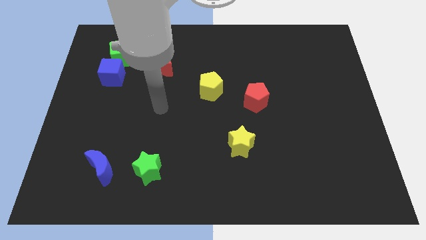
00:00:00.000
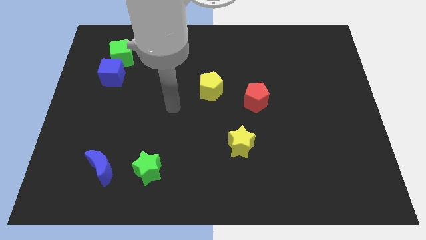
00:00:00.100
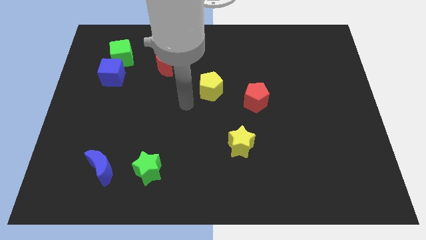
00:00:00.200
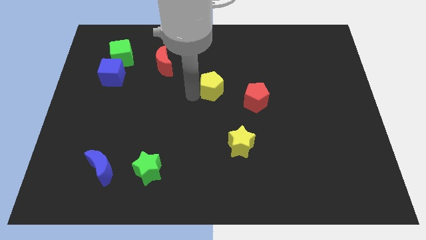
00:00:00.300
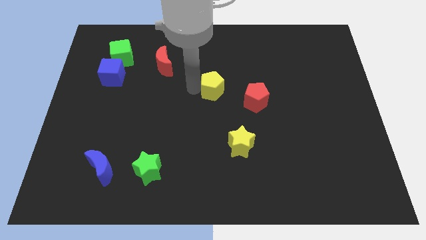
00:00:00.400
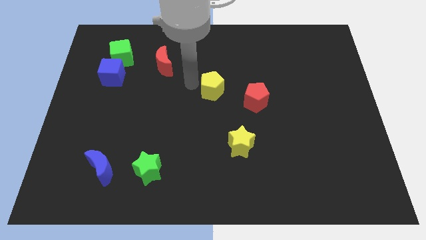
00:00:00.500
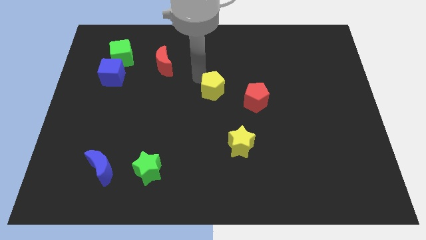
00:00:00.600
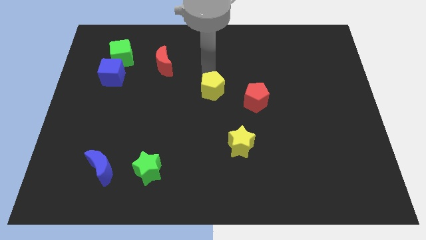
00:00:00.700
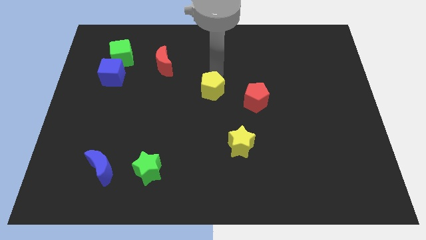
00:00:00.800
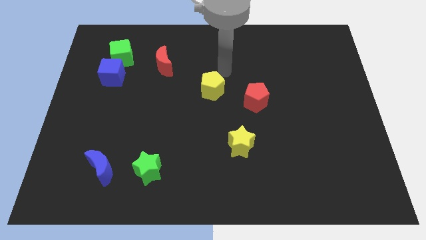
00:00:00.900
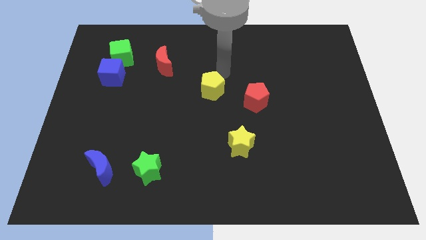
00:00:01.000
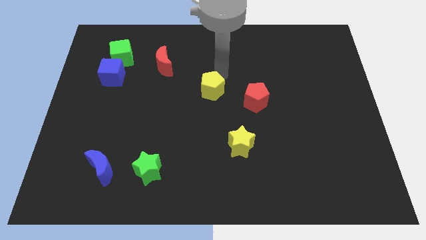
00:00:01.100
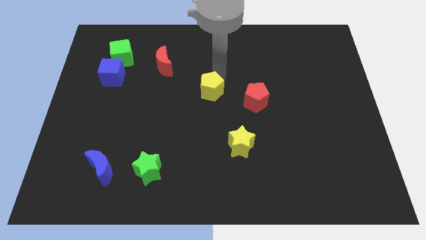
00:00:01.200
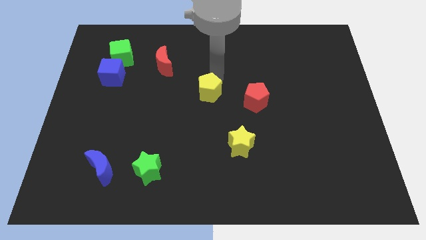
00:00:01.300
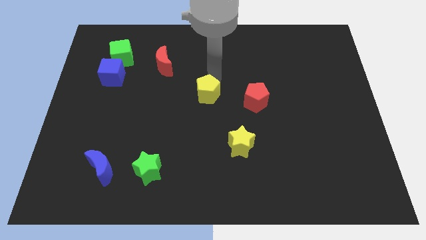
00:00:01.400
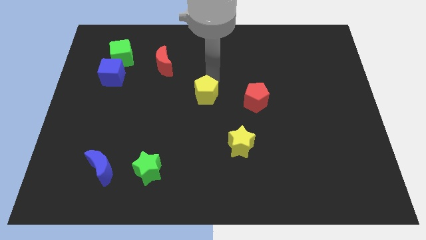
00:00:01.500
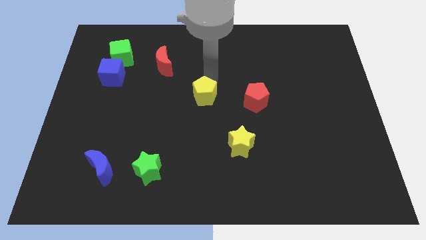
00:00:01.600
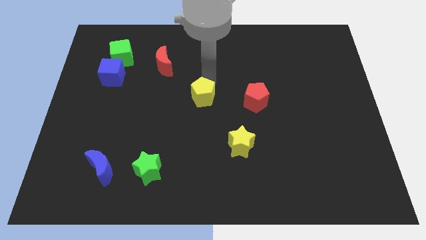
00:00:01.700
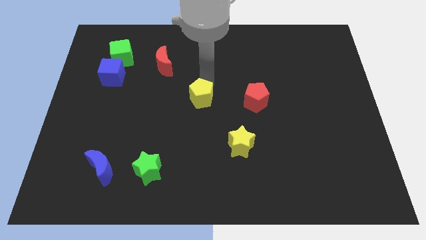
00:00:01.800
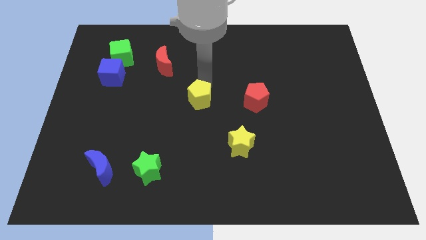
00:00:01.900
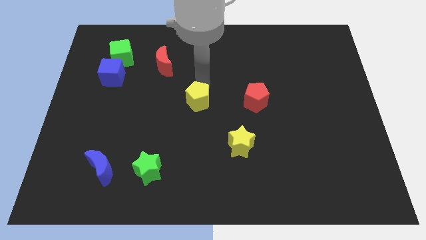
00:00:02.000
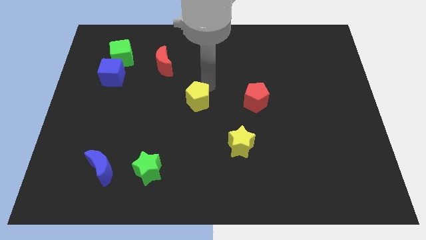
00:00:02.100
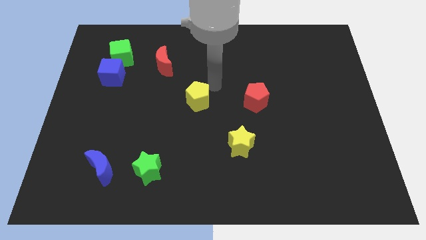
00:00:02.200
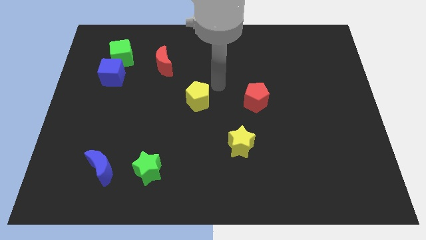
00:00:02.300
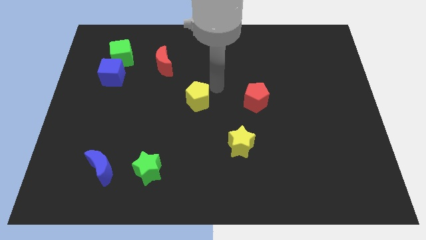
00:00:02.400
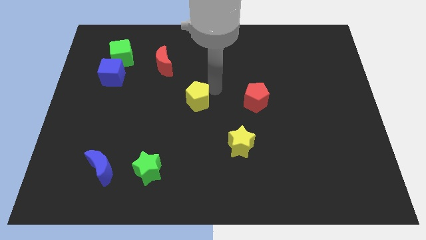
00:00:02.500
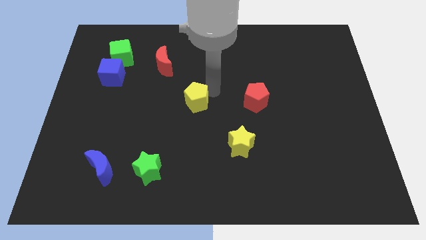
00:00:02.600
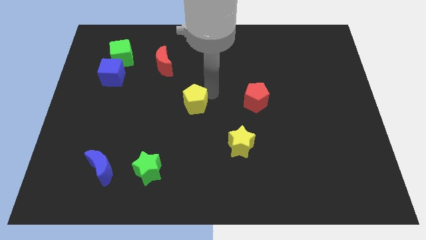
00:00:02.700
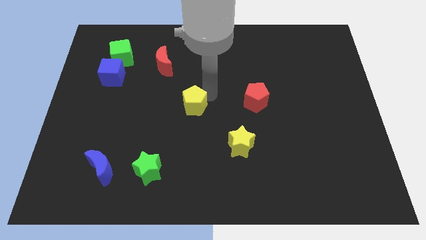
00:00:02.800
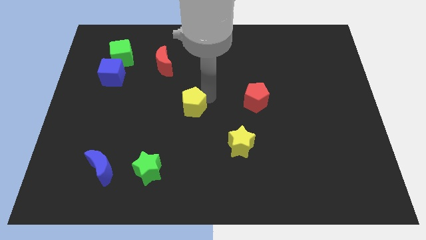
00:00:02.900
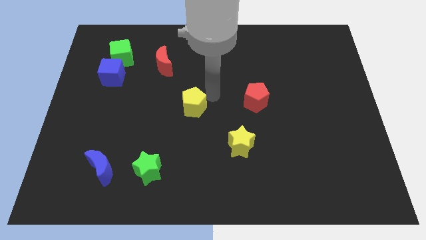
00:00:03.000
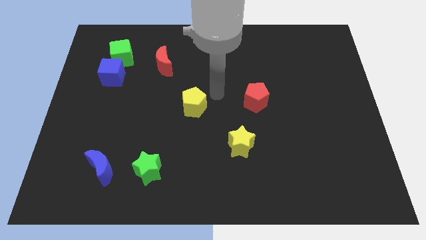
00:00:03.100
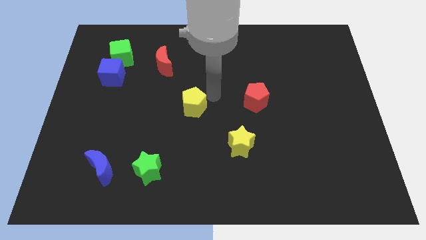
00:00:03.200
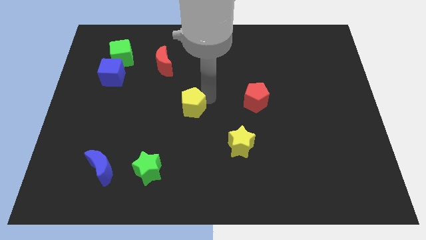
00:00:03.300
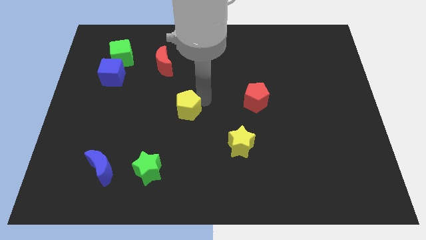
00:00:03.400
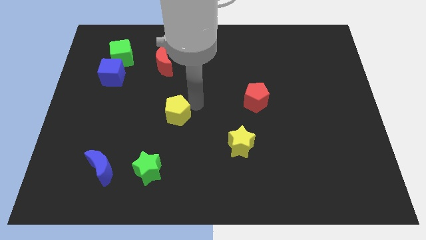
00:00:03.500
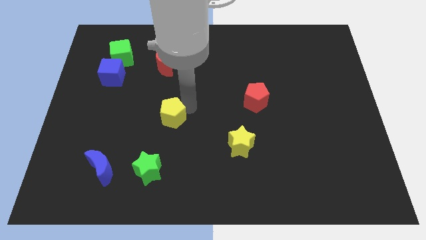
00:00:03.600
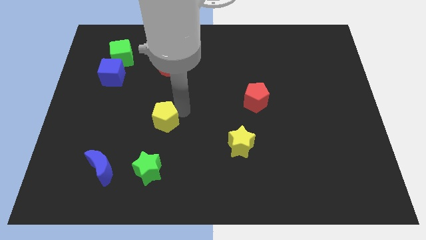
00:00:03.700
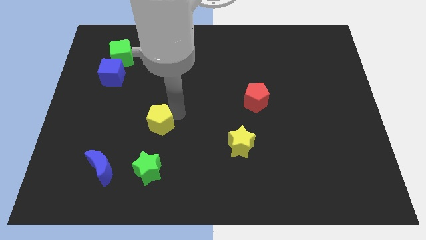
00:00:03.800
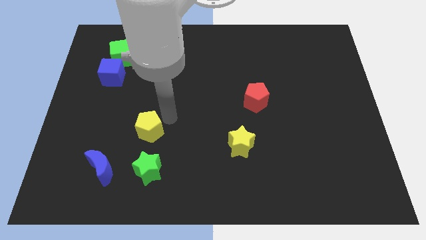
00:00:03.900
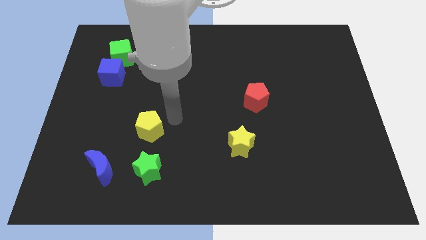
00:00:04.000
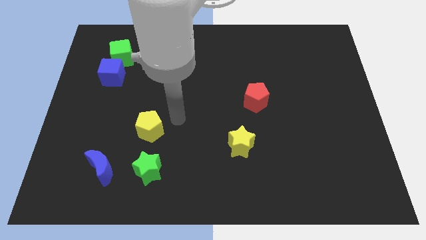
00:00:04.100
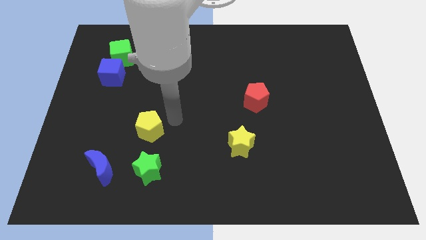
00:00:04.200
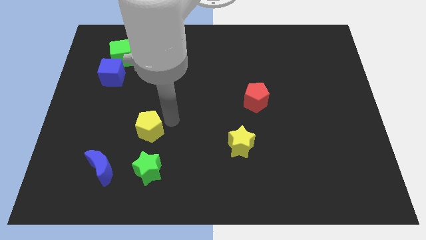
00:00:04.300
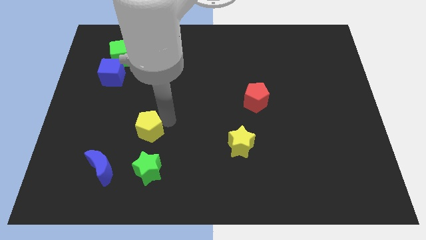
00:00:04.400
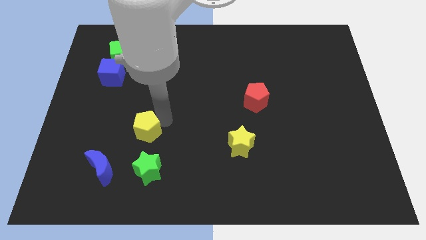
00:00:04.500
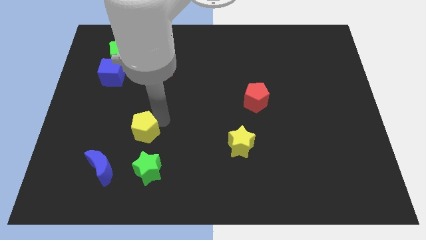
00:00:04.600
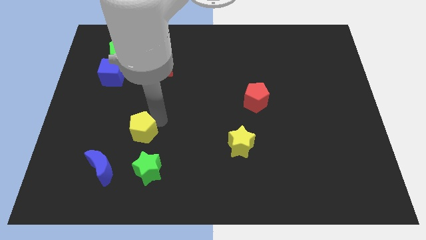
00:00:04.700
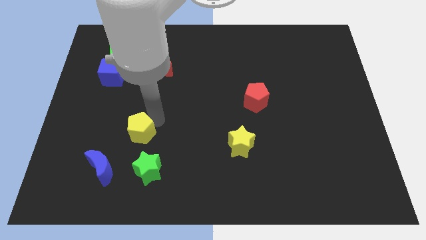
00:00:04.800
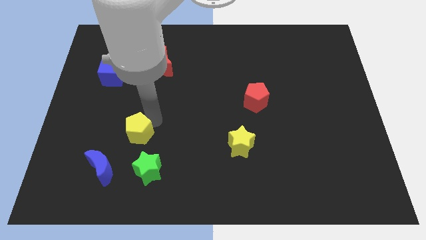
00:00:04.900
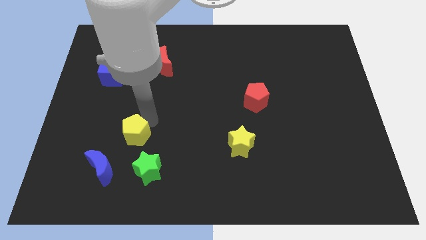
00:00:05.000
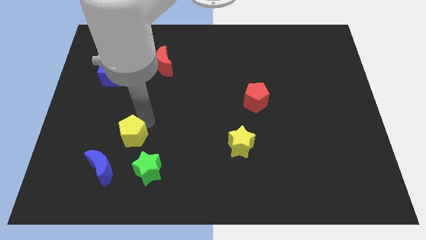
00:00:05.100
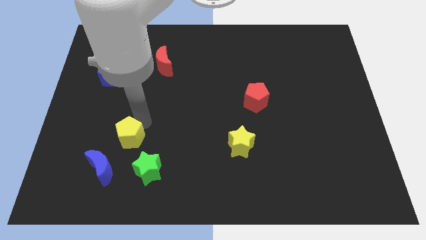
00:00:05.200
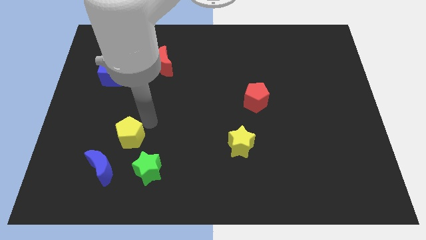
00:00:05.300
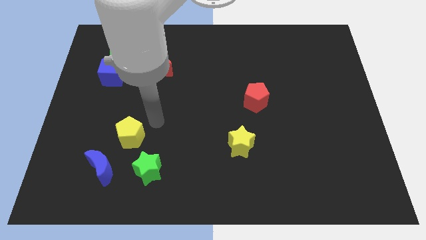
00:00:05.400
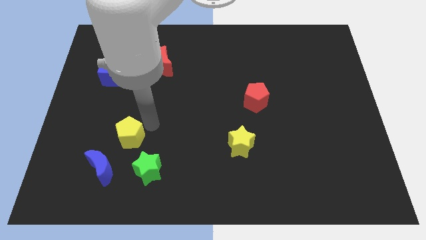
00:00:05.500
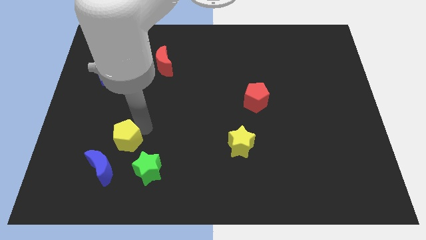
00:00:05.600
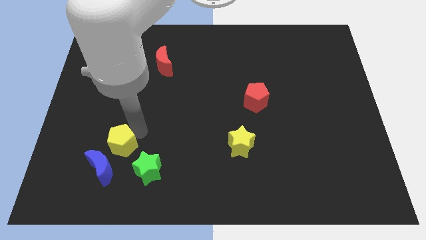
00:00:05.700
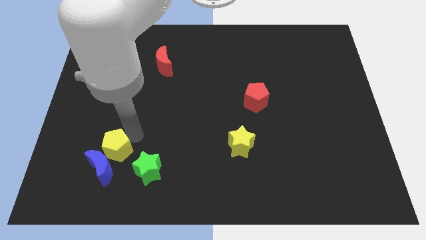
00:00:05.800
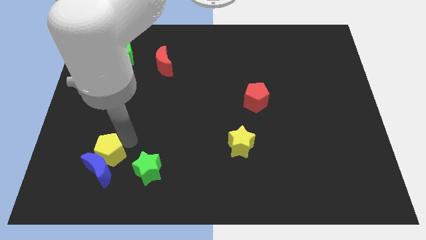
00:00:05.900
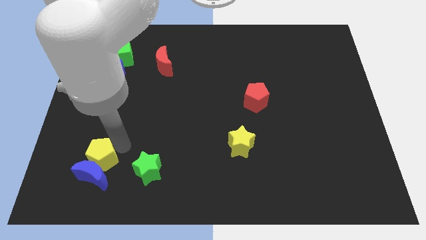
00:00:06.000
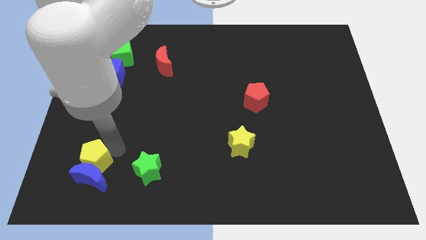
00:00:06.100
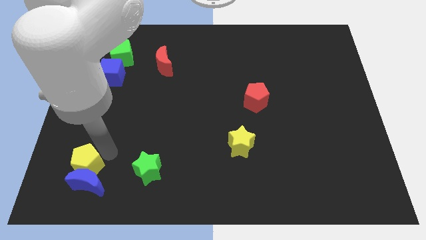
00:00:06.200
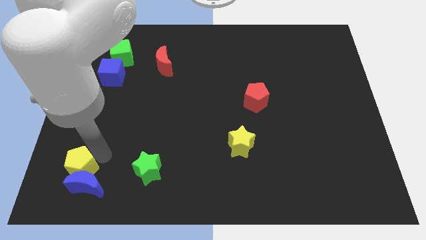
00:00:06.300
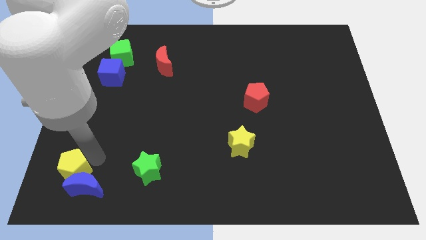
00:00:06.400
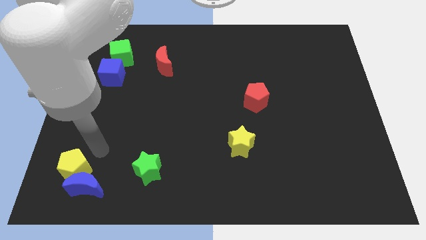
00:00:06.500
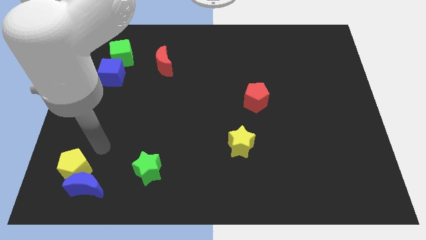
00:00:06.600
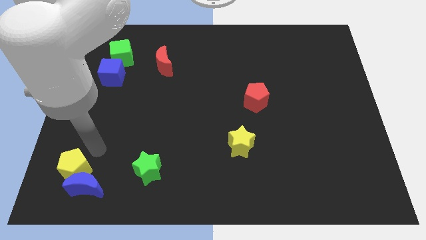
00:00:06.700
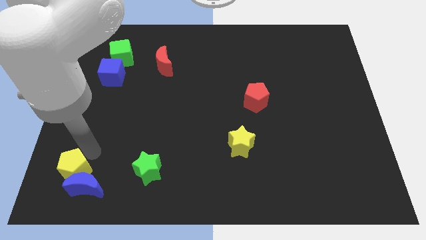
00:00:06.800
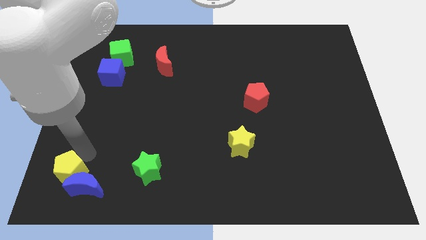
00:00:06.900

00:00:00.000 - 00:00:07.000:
push the yellow pentagon to the bottom left of the board
